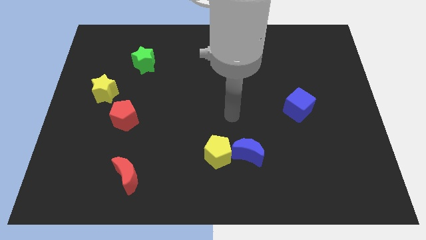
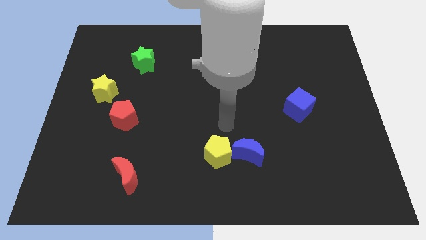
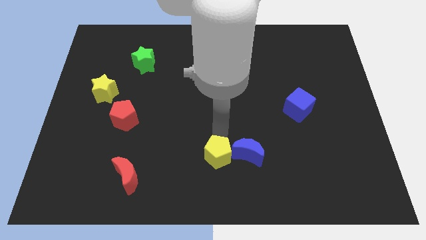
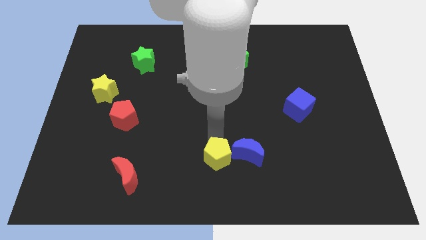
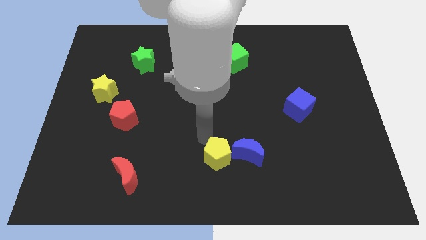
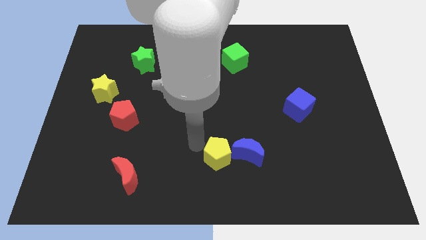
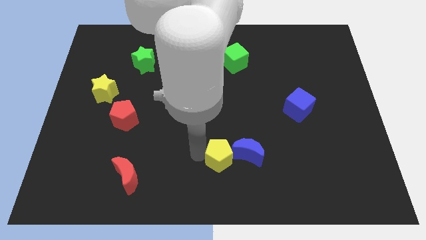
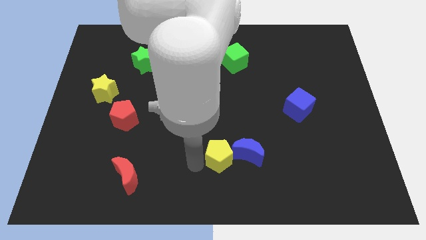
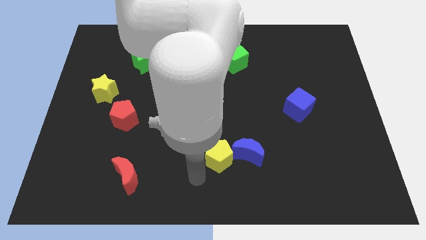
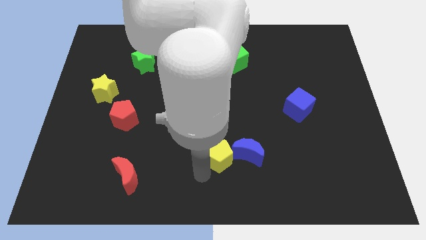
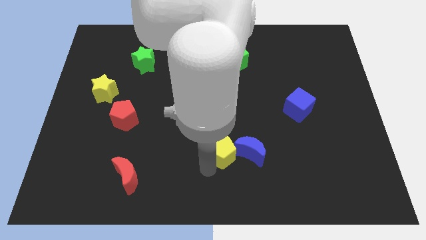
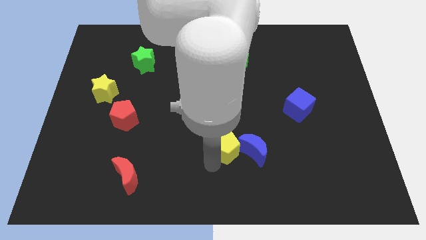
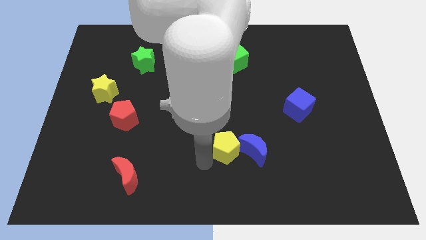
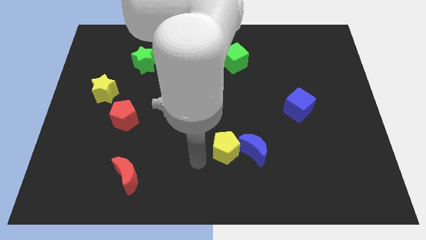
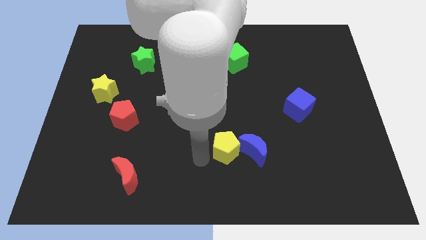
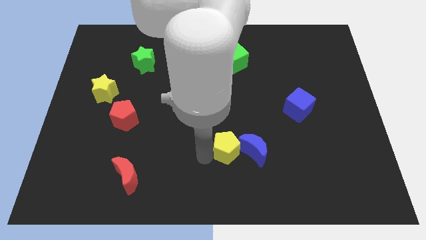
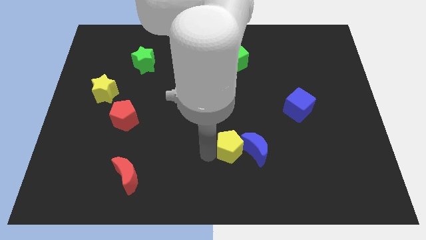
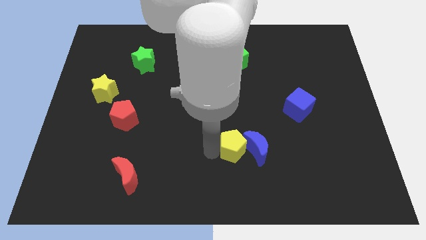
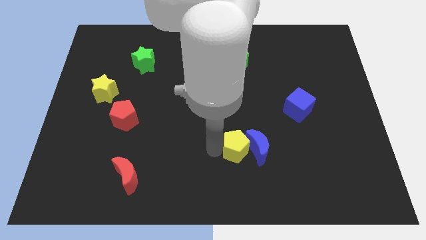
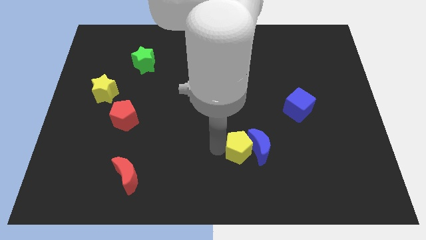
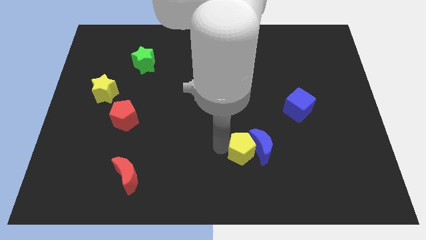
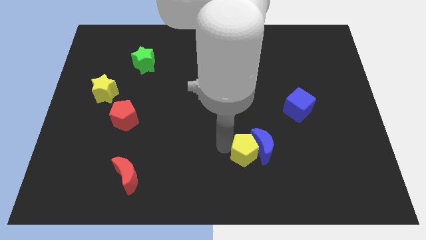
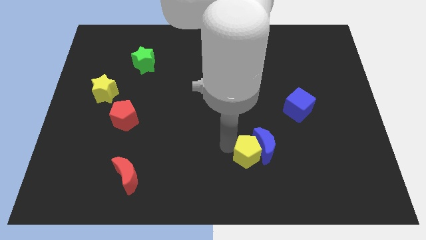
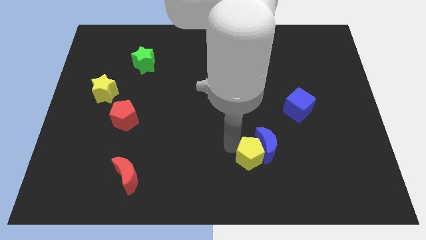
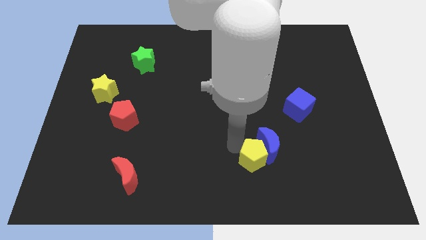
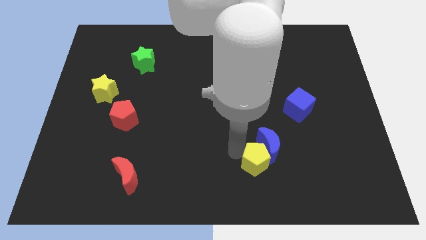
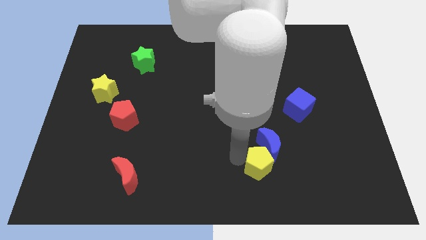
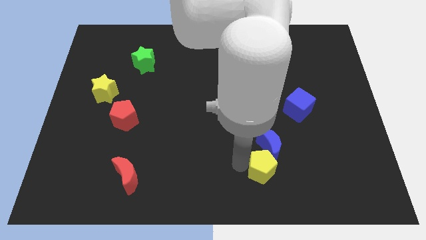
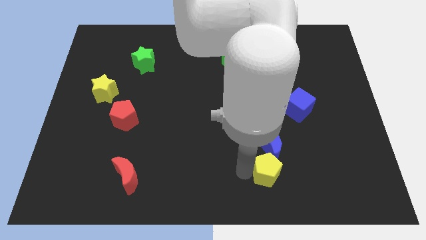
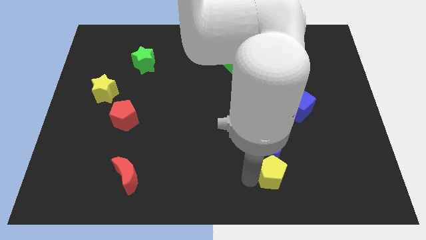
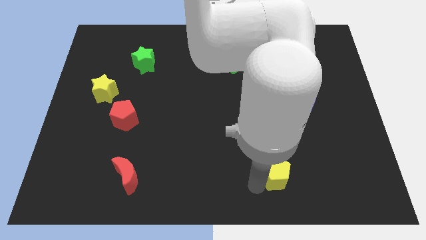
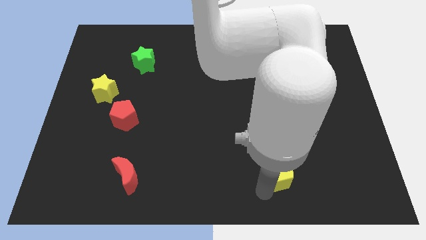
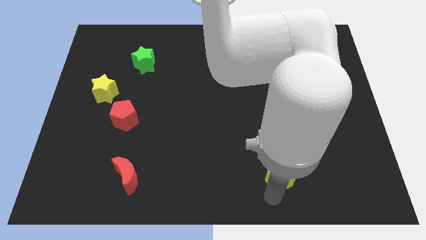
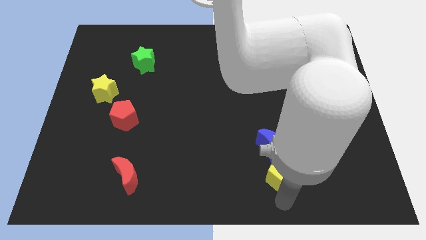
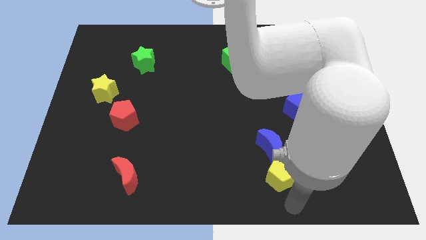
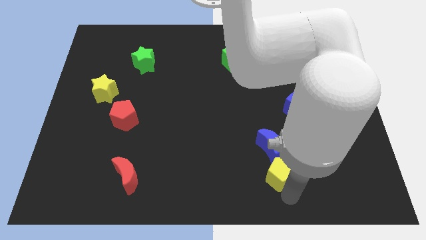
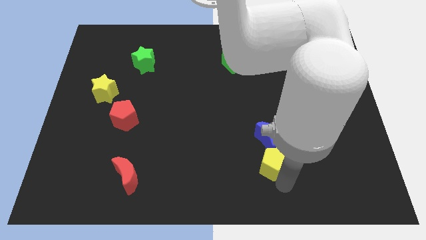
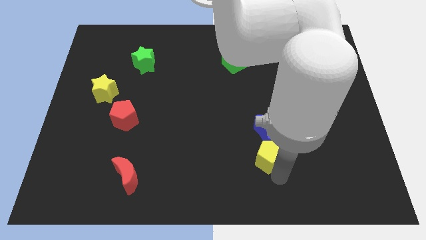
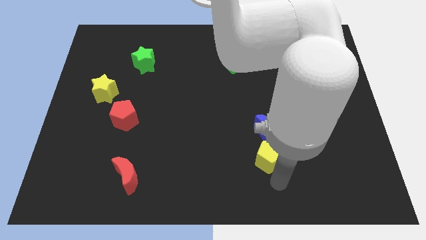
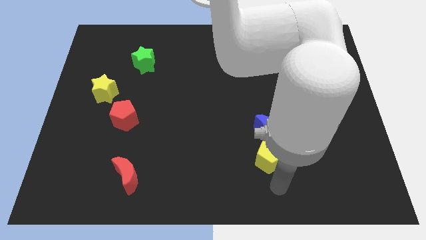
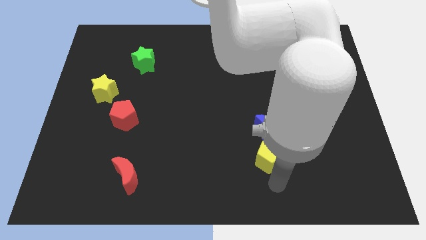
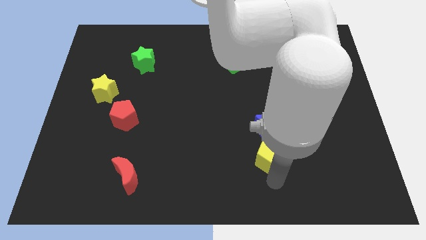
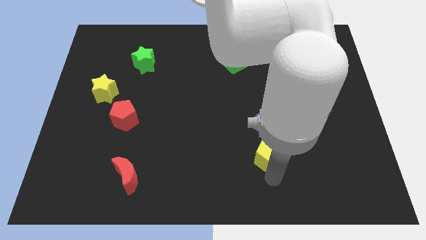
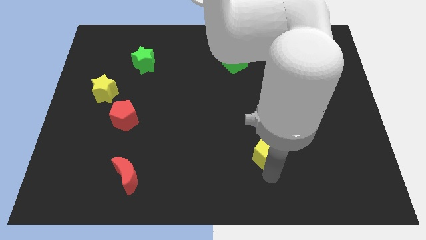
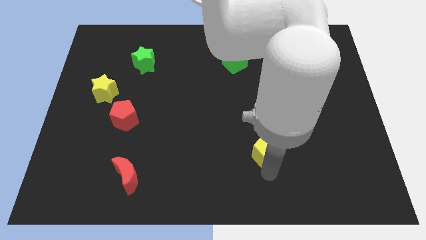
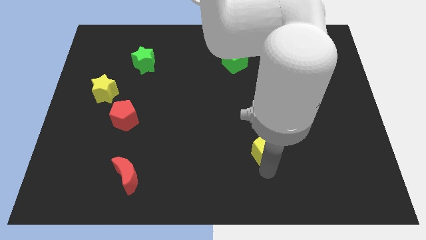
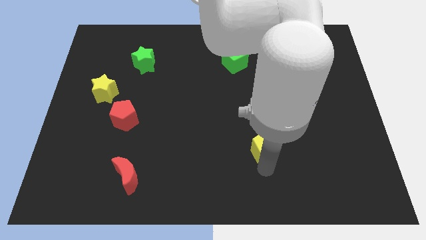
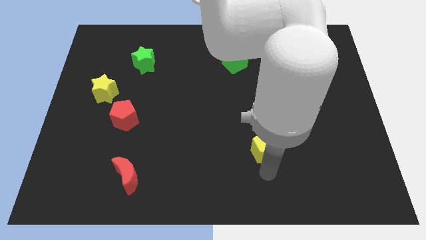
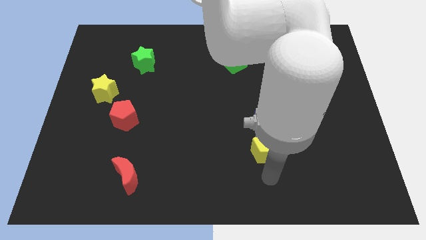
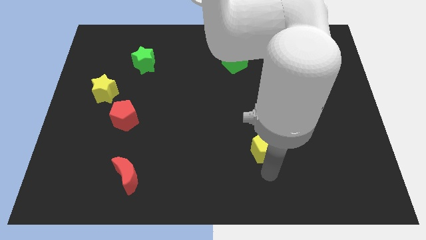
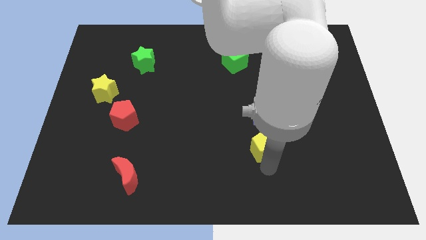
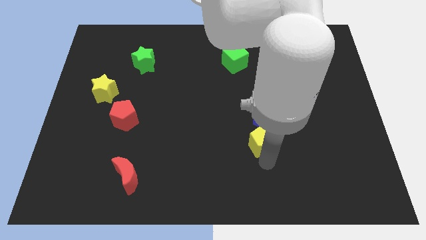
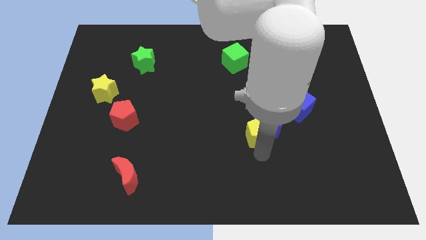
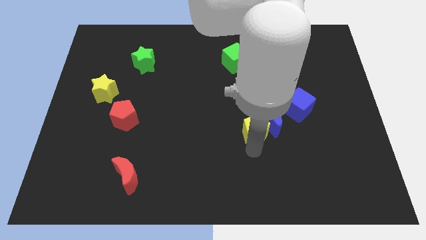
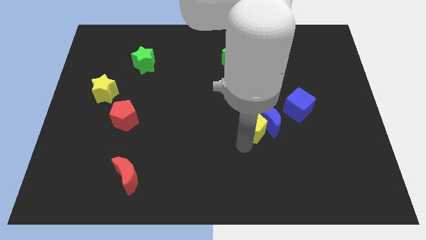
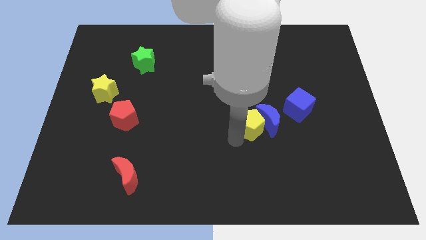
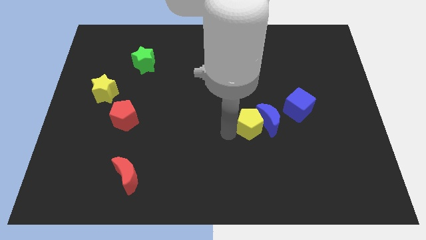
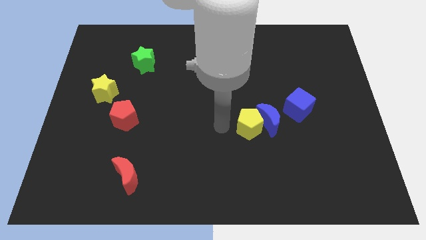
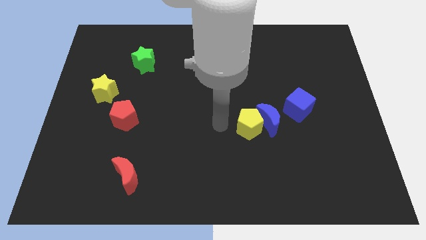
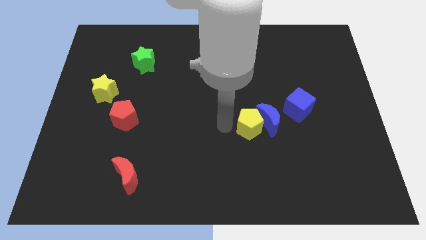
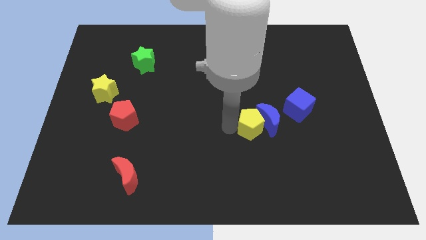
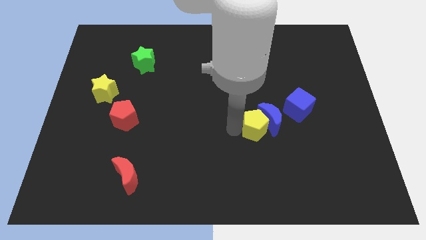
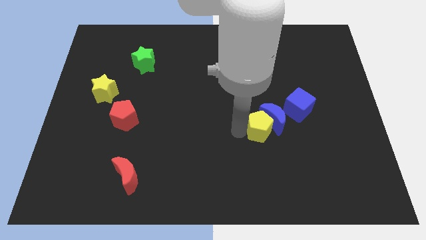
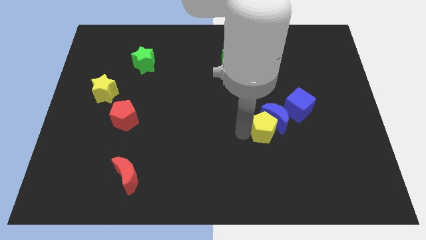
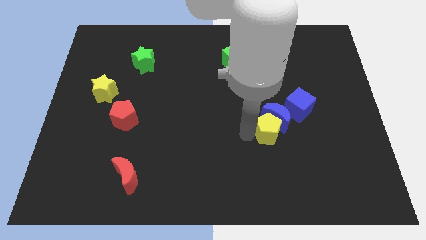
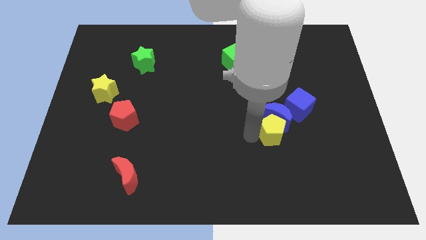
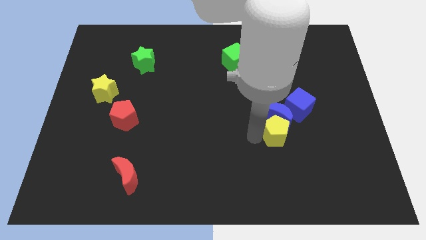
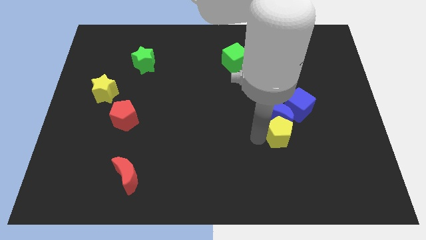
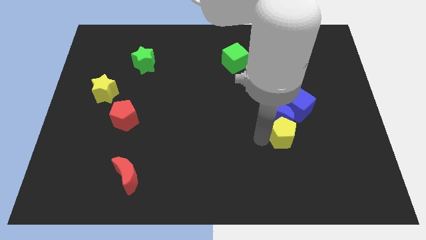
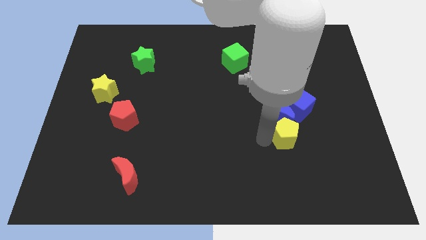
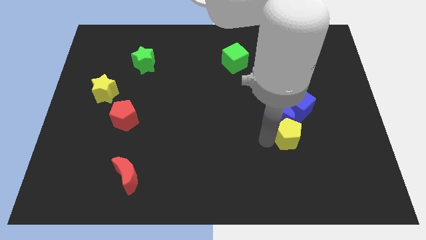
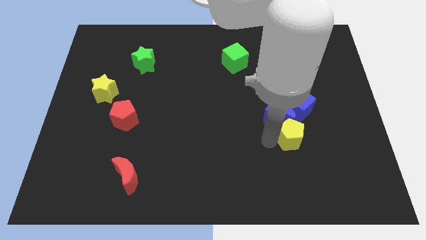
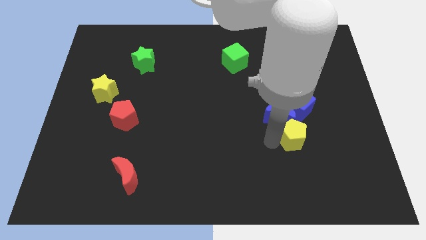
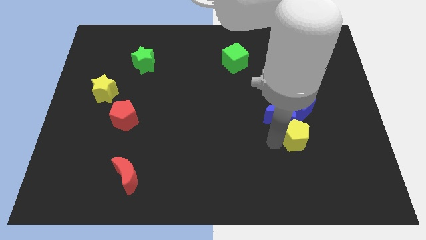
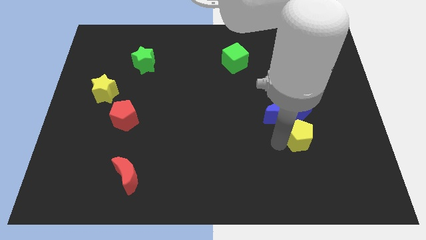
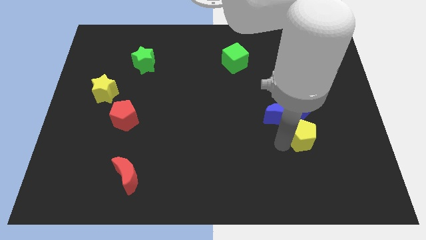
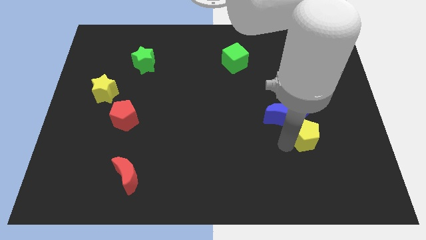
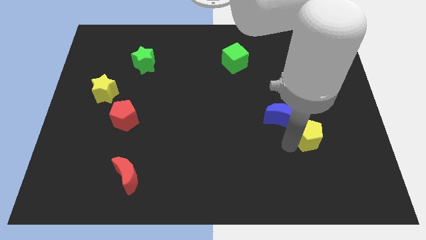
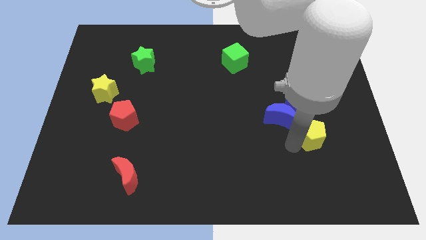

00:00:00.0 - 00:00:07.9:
move the yellow pentagon to the bottom right side of the blue cube

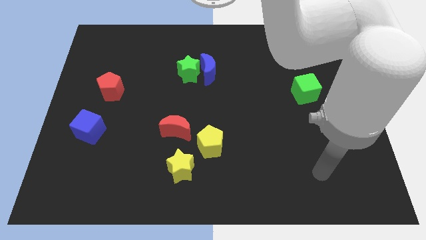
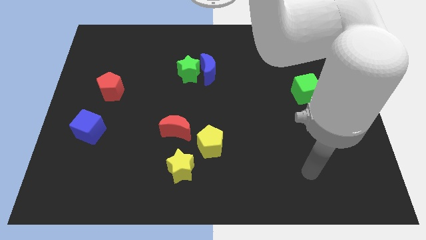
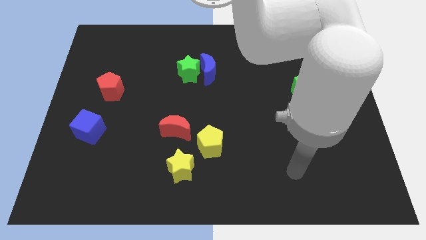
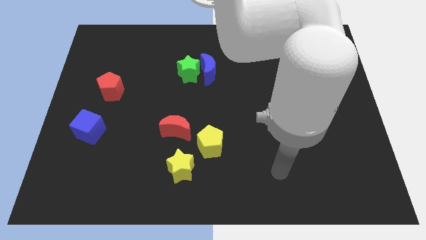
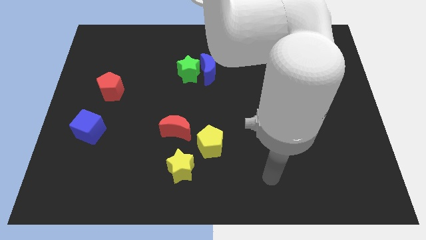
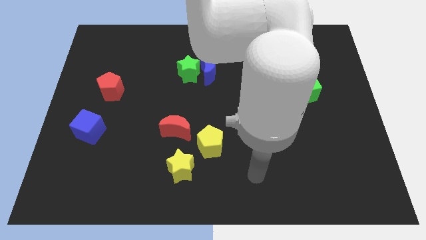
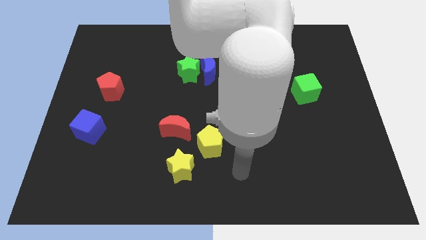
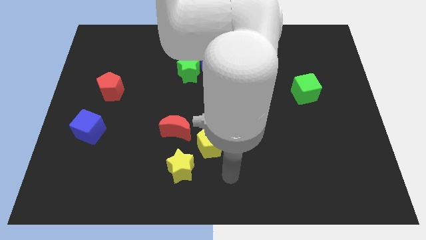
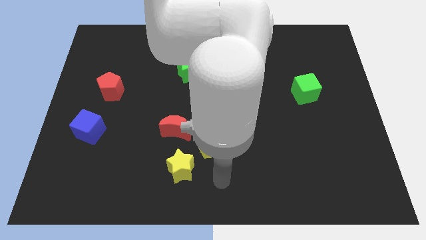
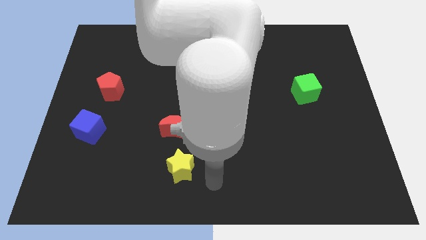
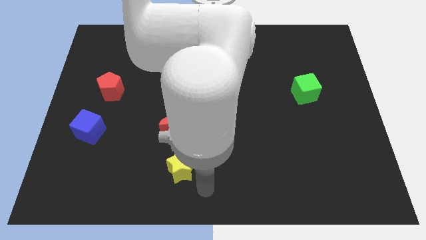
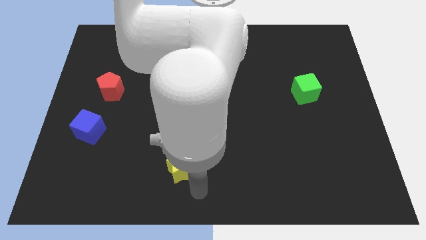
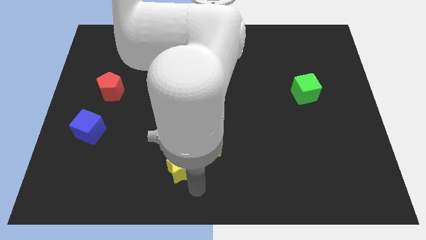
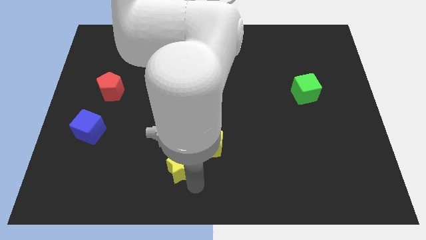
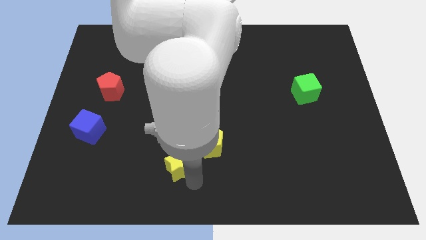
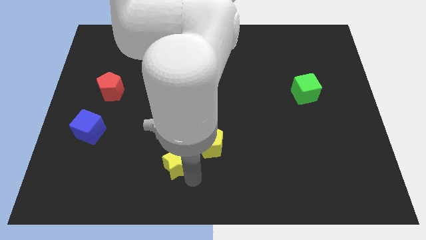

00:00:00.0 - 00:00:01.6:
slide the yellow star to the left of the yellow pentagon
